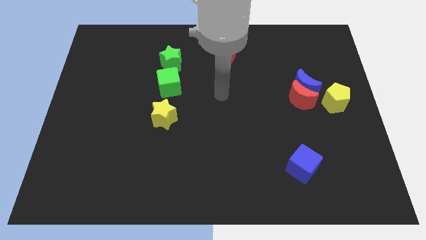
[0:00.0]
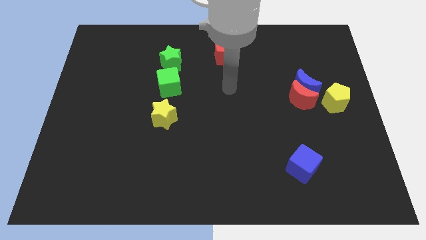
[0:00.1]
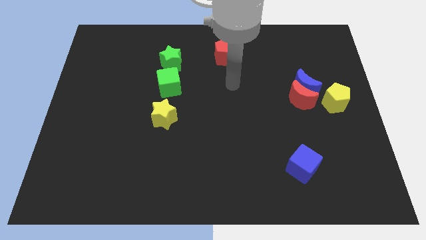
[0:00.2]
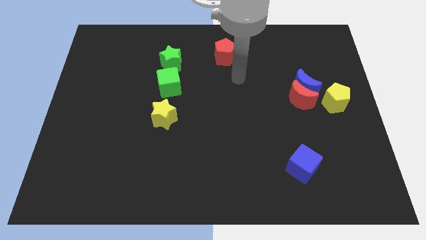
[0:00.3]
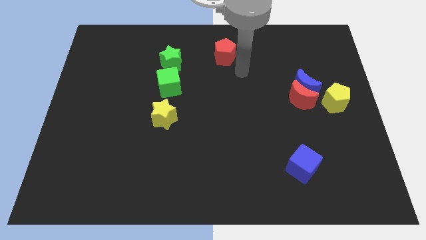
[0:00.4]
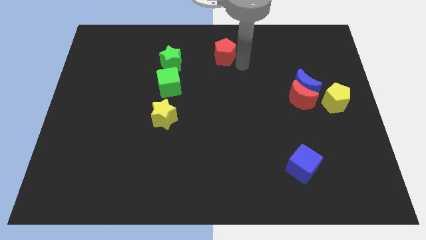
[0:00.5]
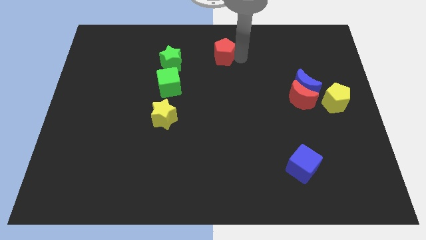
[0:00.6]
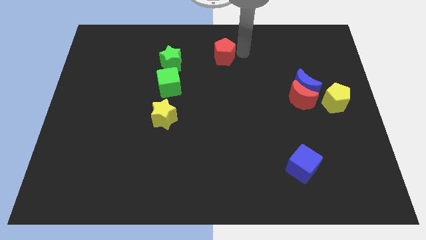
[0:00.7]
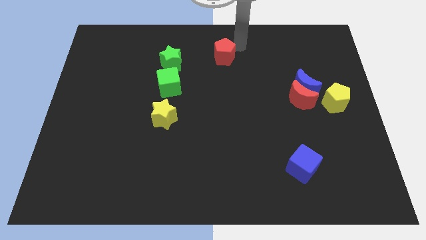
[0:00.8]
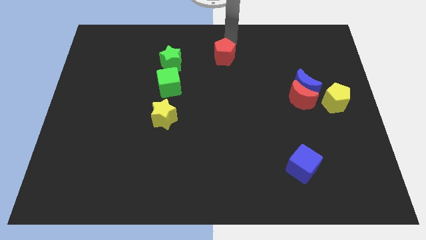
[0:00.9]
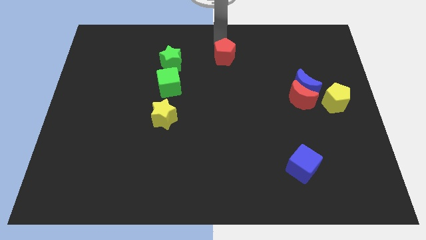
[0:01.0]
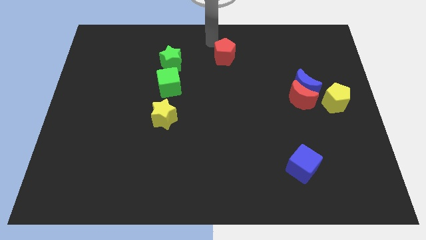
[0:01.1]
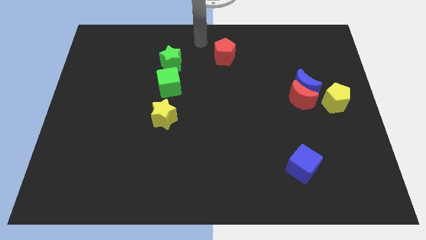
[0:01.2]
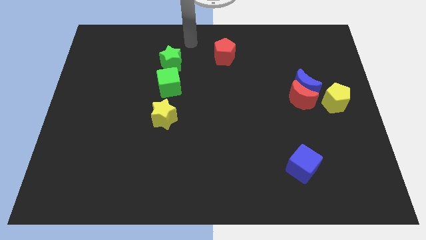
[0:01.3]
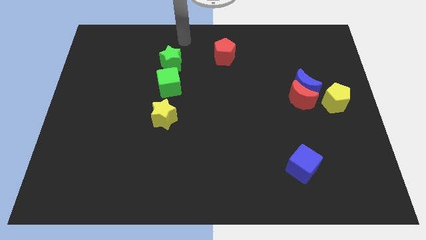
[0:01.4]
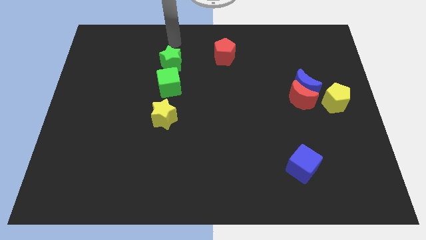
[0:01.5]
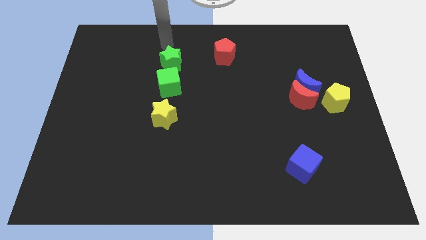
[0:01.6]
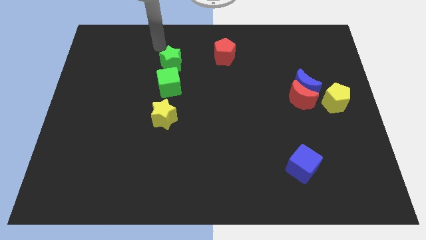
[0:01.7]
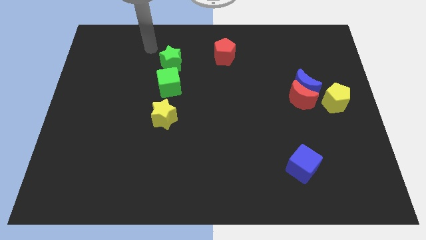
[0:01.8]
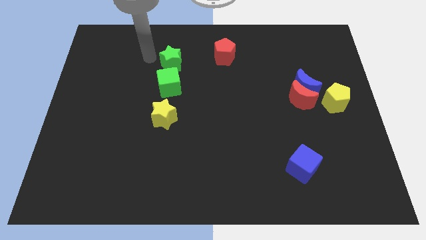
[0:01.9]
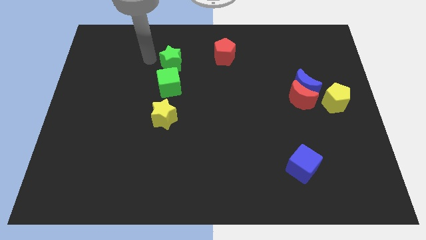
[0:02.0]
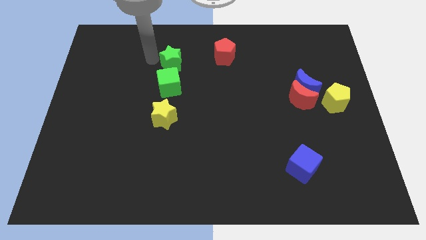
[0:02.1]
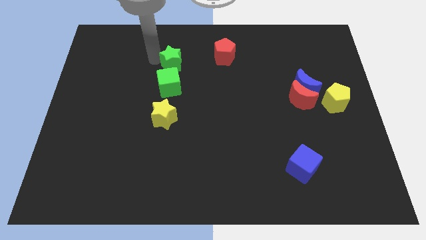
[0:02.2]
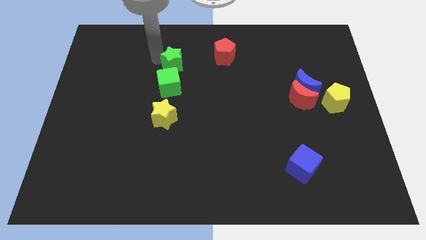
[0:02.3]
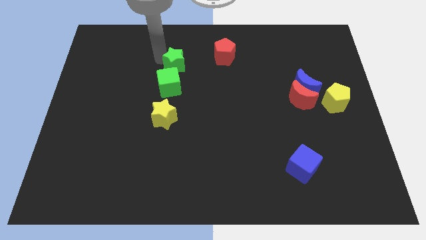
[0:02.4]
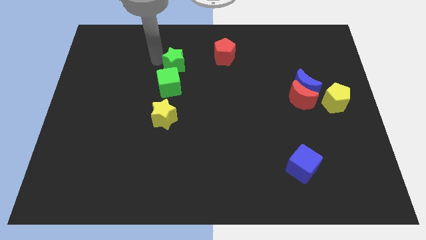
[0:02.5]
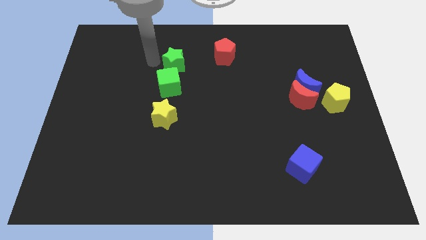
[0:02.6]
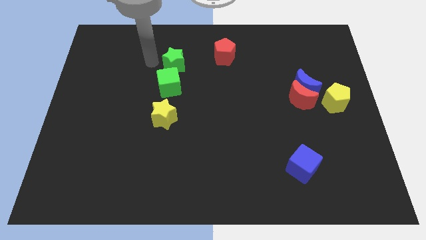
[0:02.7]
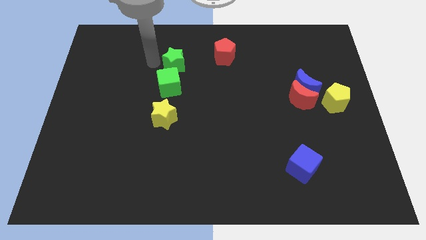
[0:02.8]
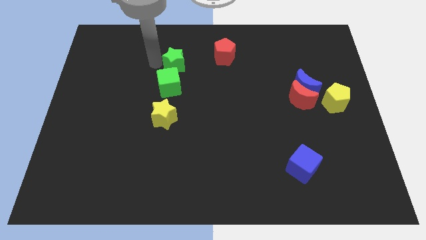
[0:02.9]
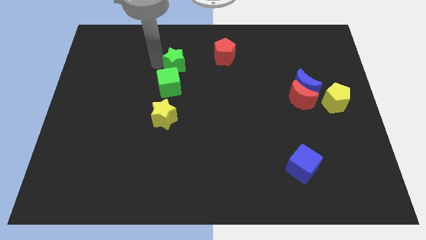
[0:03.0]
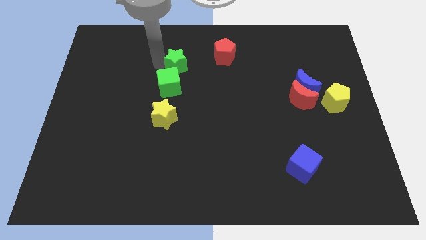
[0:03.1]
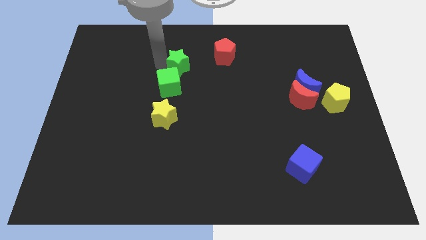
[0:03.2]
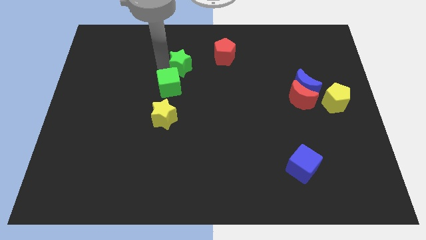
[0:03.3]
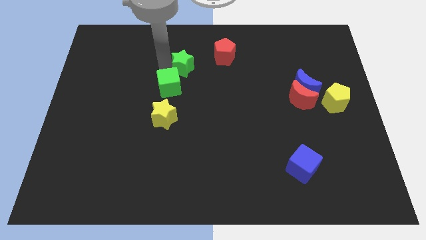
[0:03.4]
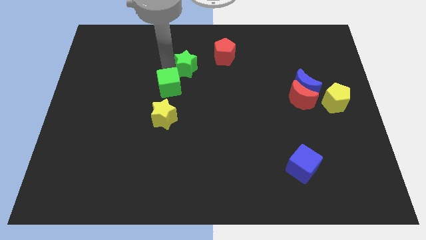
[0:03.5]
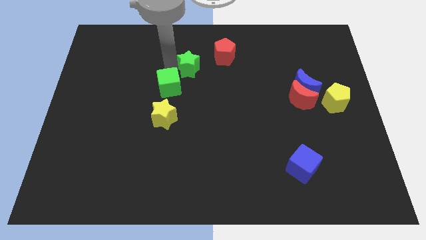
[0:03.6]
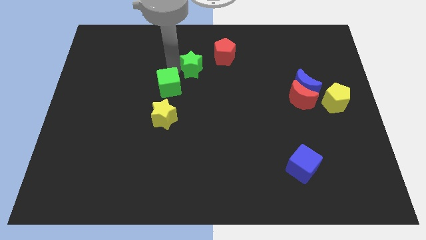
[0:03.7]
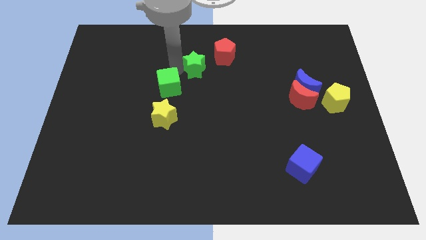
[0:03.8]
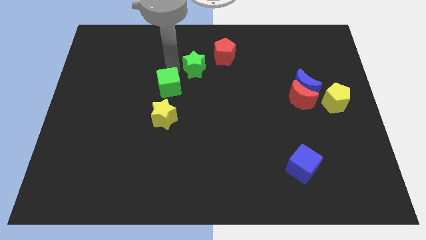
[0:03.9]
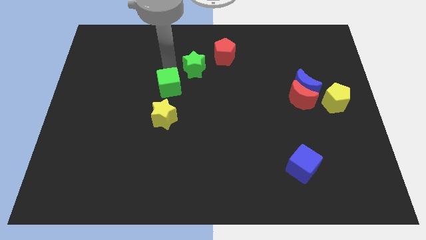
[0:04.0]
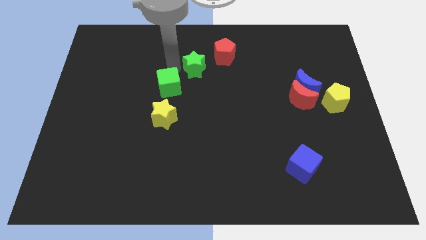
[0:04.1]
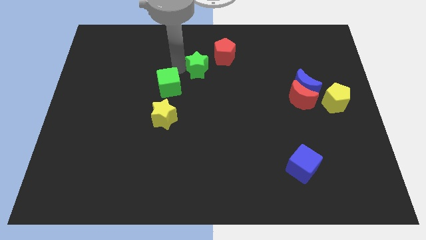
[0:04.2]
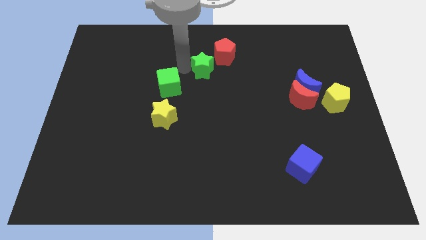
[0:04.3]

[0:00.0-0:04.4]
slightly push the green star right

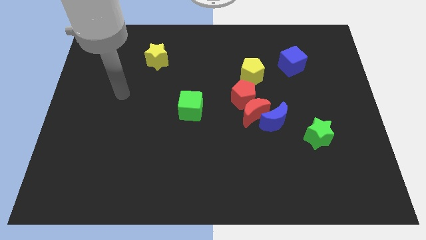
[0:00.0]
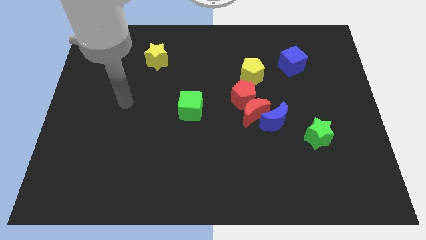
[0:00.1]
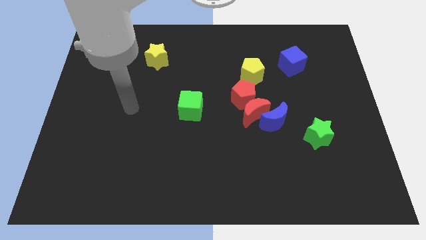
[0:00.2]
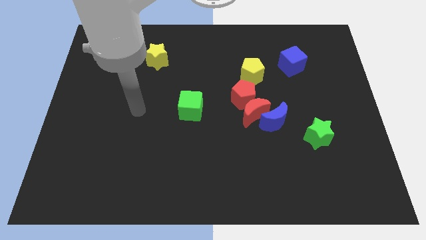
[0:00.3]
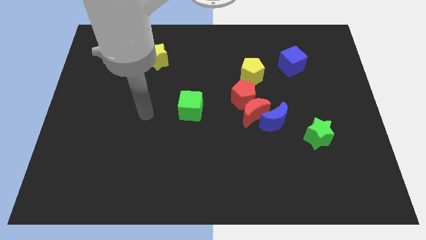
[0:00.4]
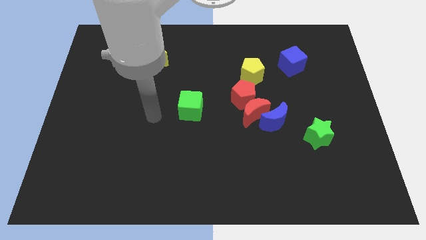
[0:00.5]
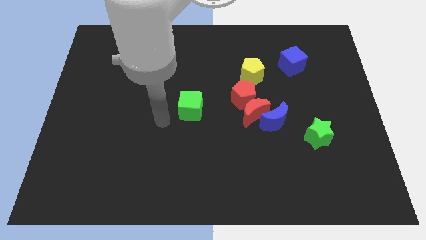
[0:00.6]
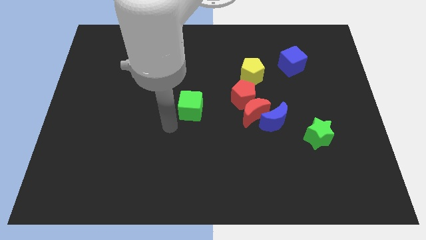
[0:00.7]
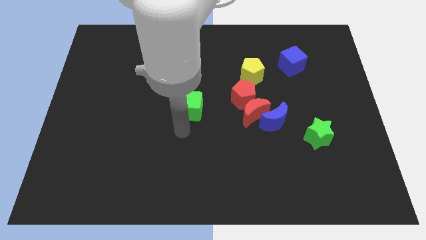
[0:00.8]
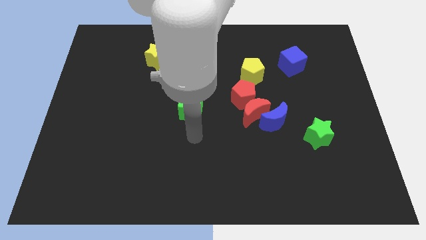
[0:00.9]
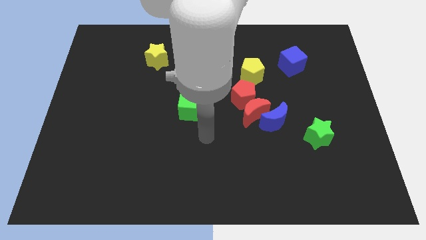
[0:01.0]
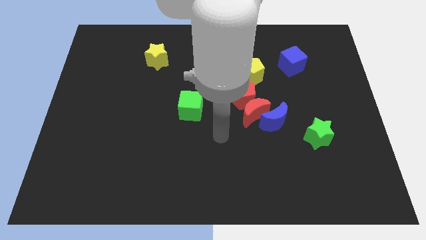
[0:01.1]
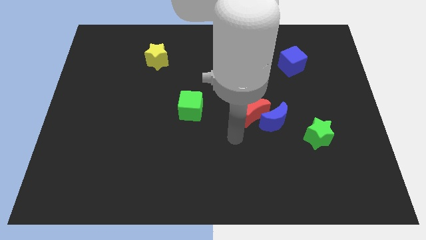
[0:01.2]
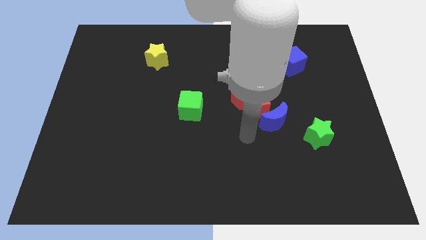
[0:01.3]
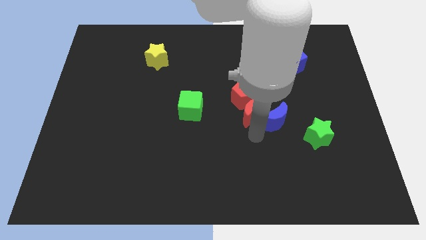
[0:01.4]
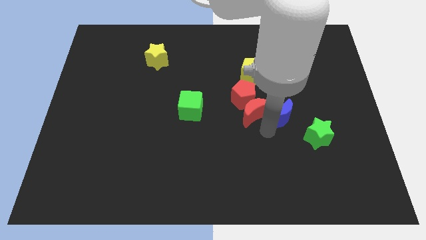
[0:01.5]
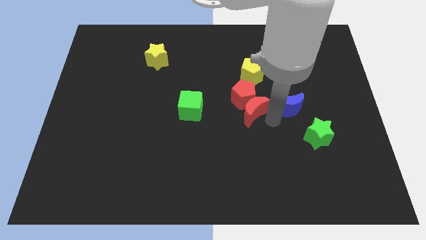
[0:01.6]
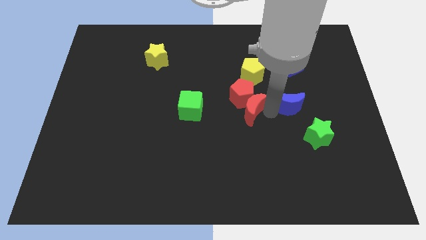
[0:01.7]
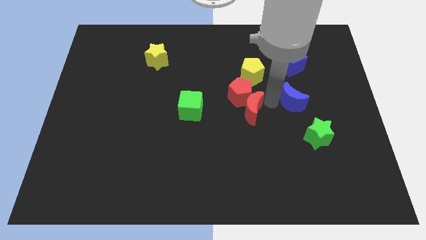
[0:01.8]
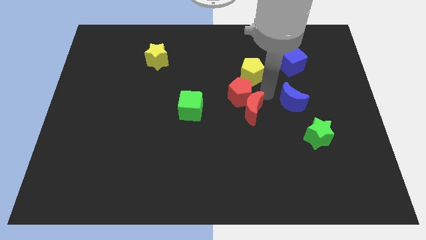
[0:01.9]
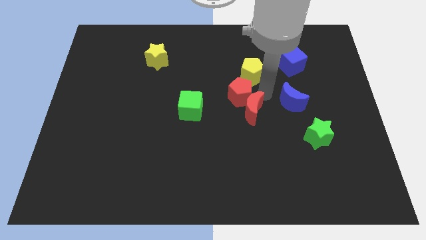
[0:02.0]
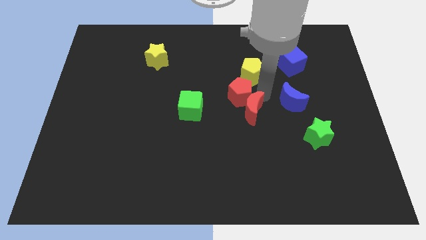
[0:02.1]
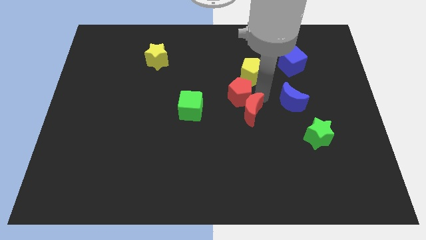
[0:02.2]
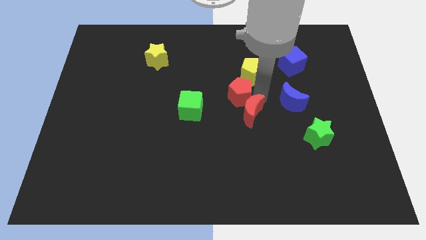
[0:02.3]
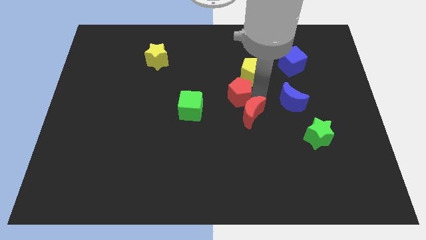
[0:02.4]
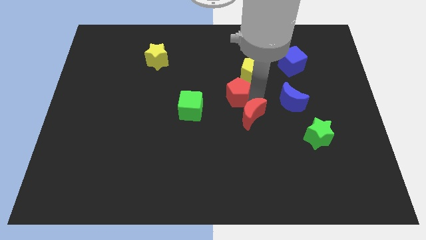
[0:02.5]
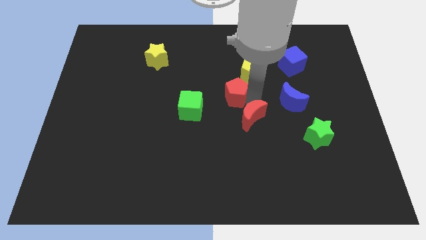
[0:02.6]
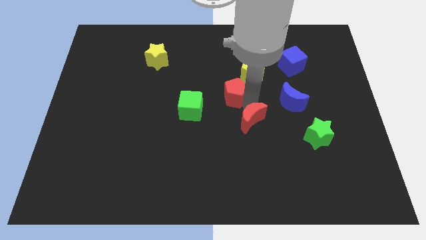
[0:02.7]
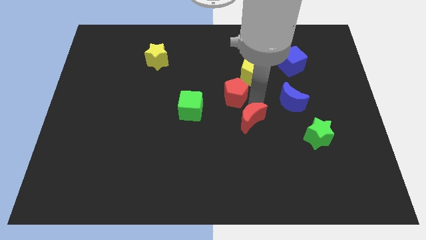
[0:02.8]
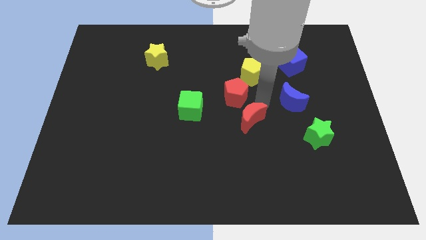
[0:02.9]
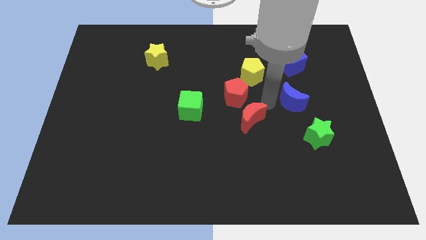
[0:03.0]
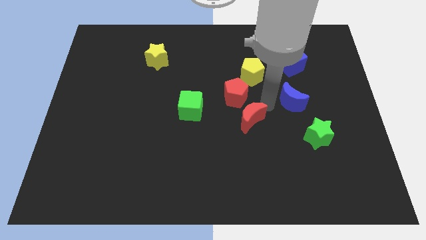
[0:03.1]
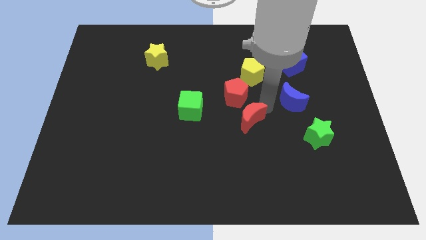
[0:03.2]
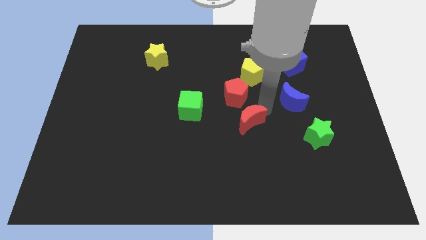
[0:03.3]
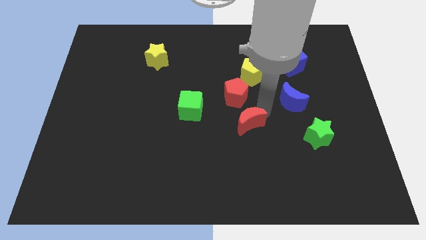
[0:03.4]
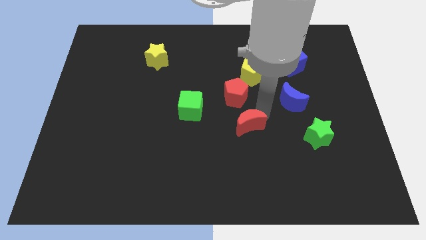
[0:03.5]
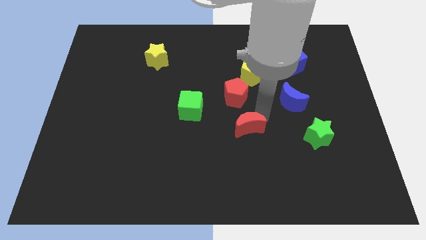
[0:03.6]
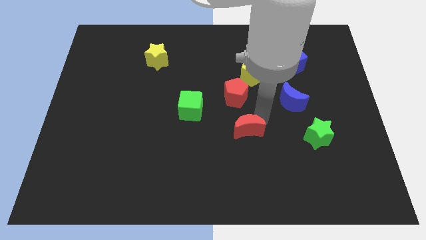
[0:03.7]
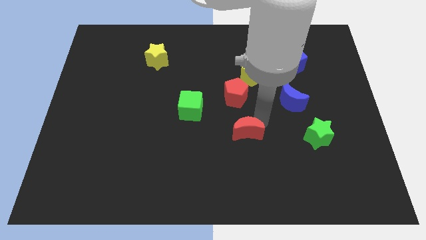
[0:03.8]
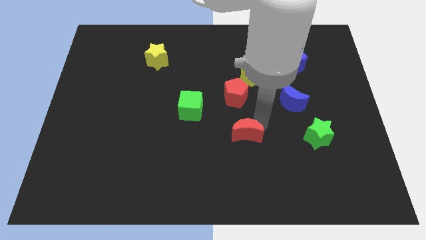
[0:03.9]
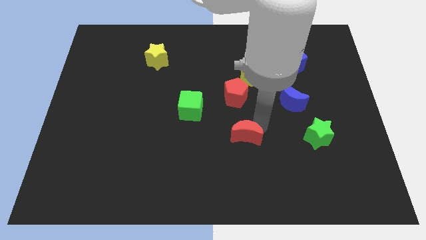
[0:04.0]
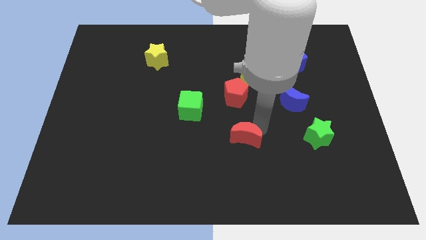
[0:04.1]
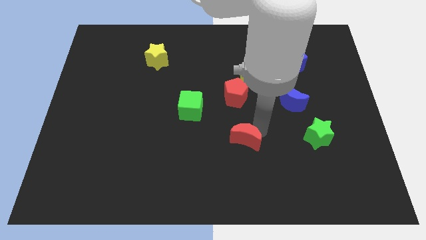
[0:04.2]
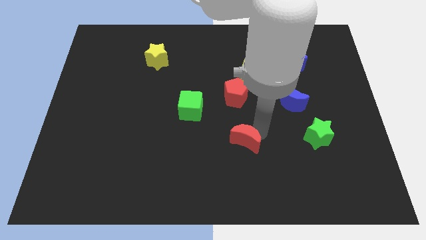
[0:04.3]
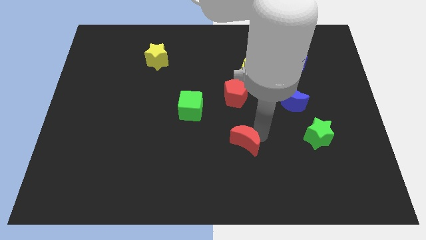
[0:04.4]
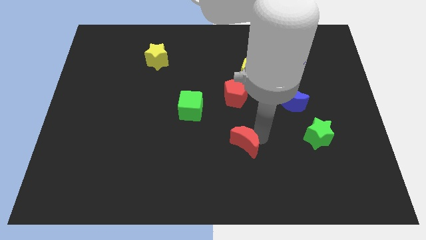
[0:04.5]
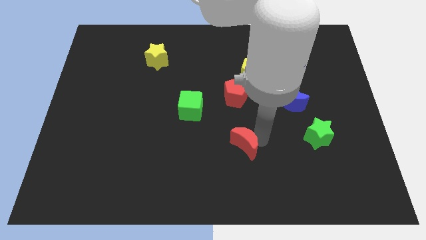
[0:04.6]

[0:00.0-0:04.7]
slightly slide the red moon downwards and then to the left
